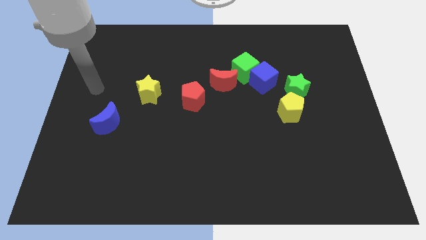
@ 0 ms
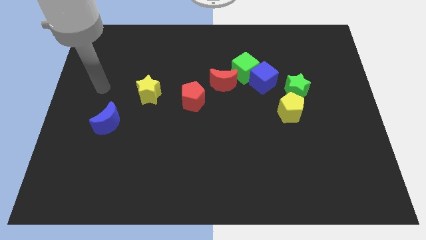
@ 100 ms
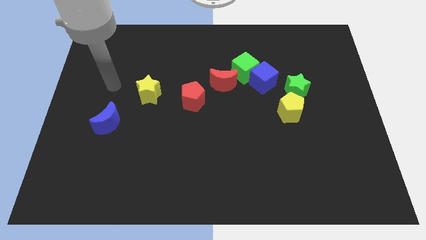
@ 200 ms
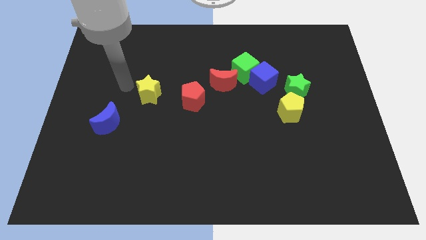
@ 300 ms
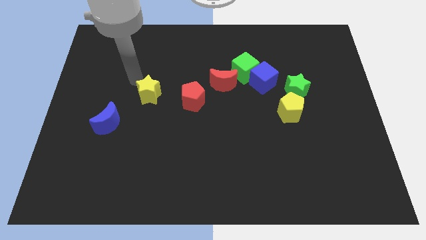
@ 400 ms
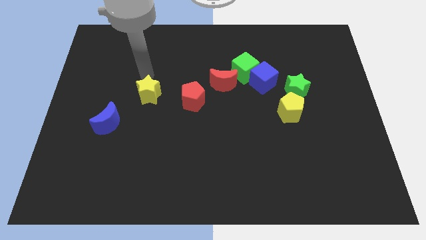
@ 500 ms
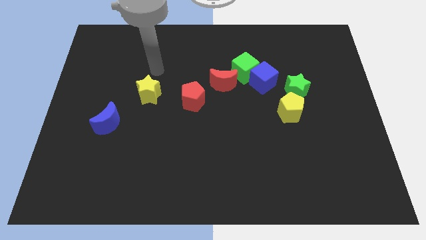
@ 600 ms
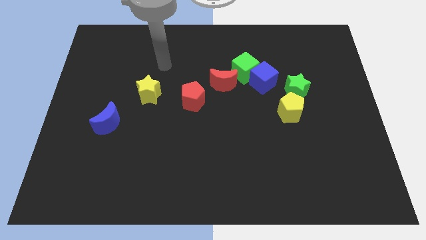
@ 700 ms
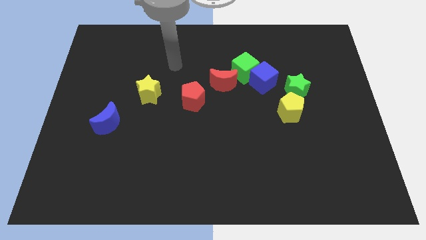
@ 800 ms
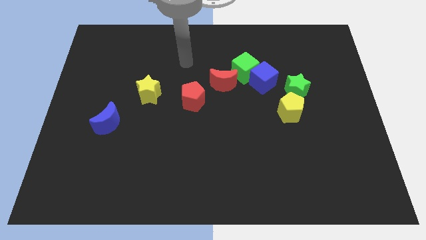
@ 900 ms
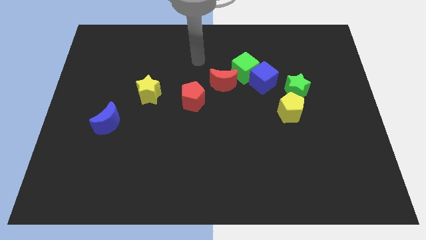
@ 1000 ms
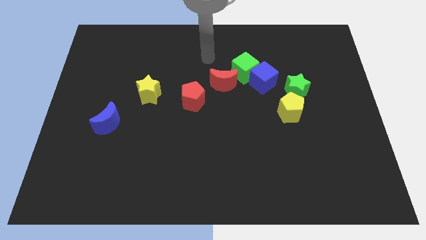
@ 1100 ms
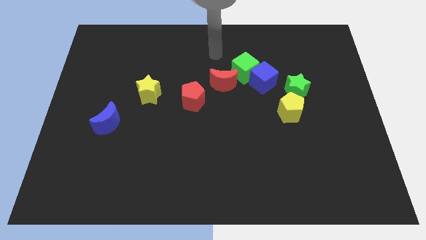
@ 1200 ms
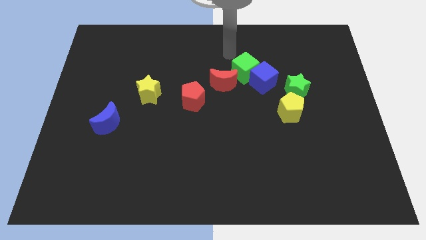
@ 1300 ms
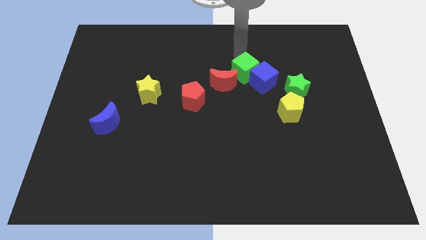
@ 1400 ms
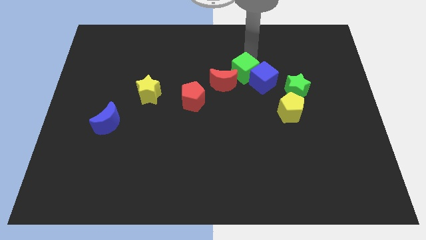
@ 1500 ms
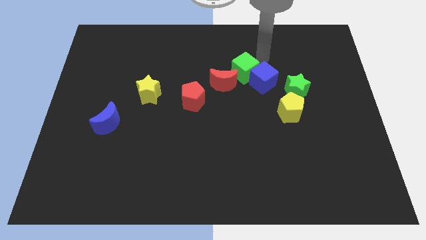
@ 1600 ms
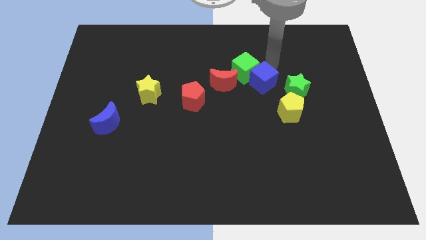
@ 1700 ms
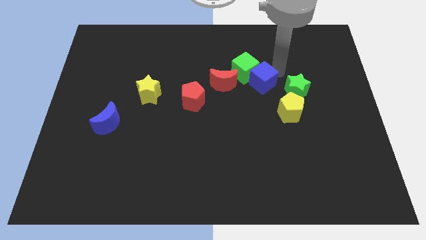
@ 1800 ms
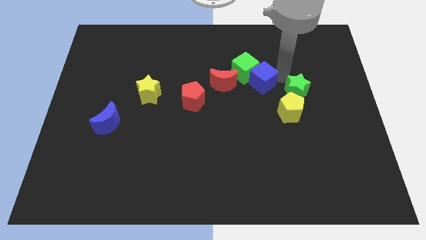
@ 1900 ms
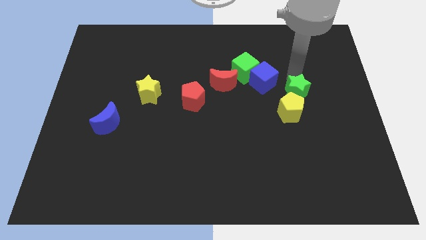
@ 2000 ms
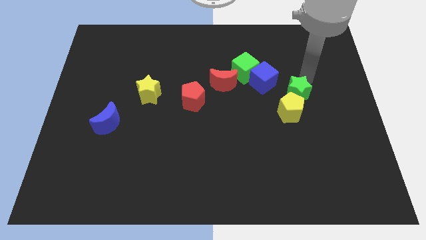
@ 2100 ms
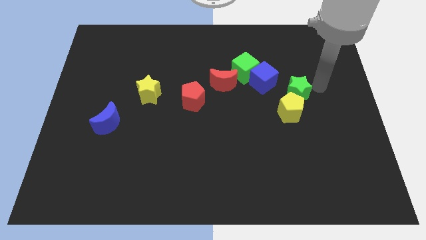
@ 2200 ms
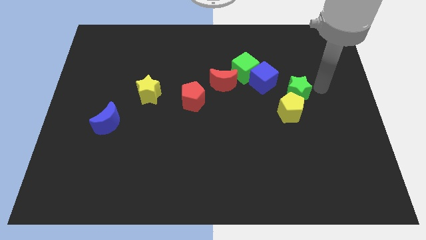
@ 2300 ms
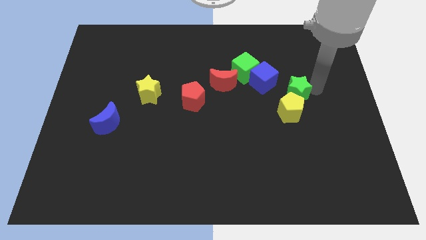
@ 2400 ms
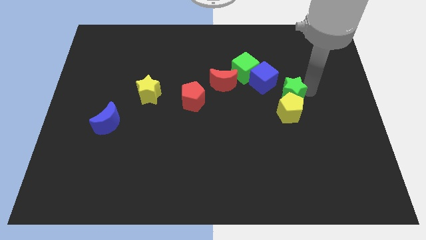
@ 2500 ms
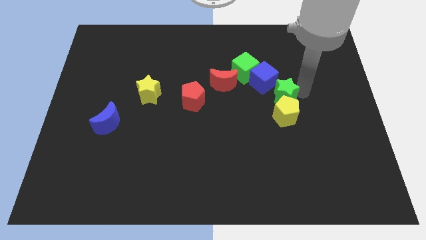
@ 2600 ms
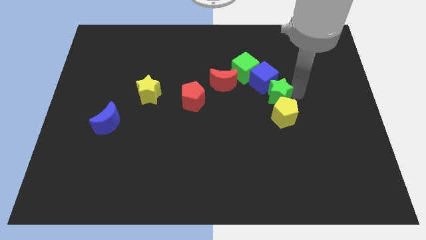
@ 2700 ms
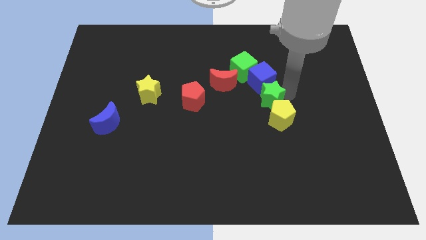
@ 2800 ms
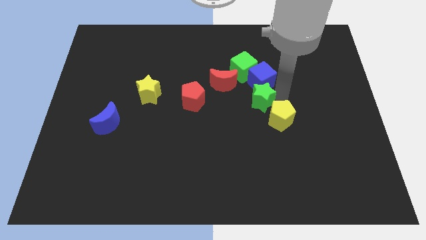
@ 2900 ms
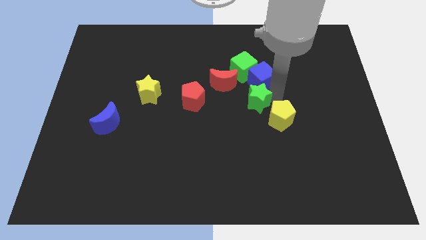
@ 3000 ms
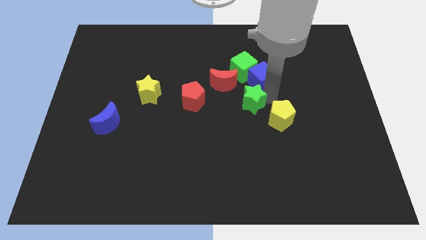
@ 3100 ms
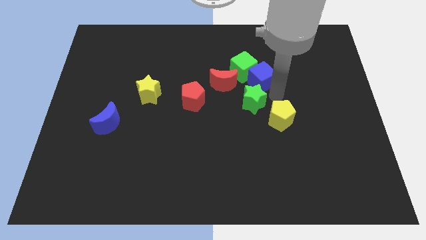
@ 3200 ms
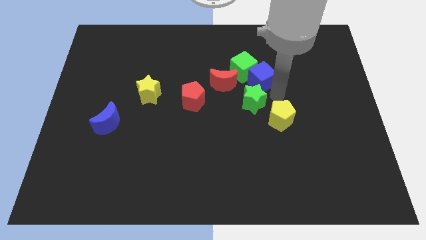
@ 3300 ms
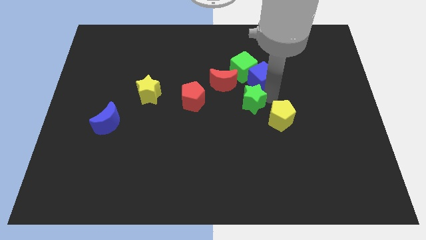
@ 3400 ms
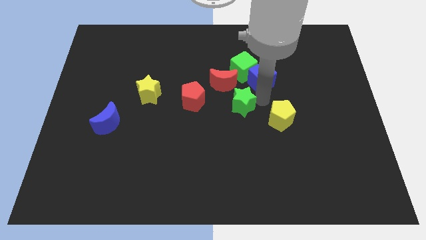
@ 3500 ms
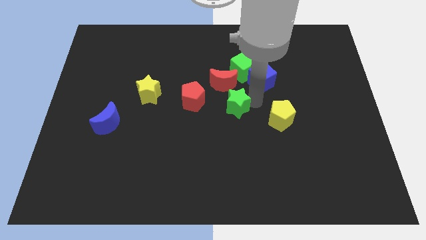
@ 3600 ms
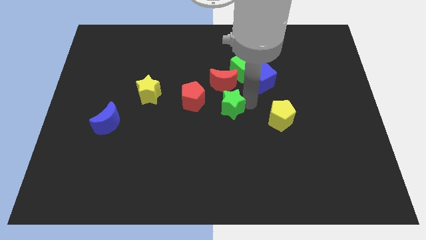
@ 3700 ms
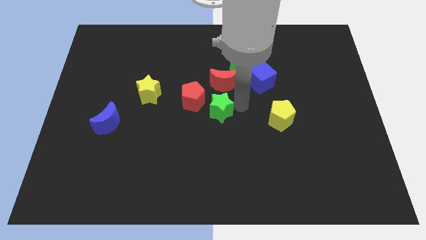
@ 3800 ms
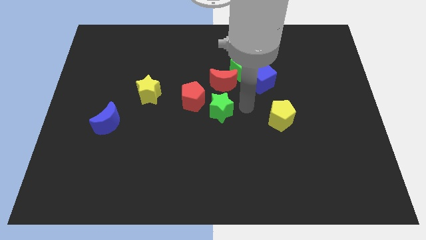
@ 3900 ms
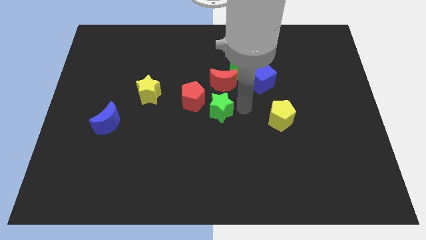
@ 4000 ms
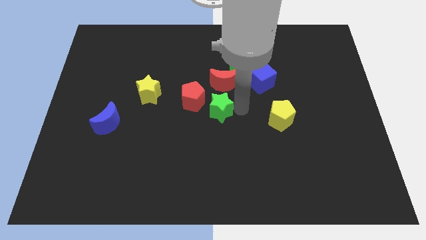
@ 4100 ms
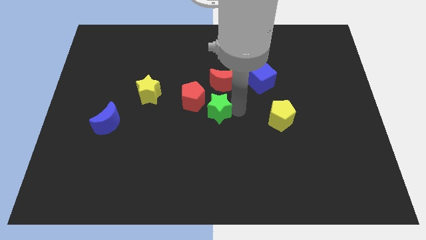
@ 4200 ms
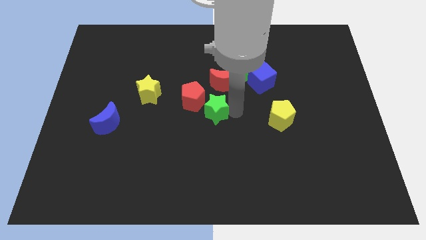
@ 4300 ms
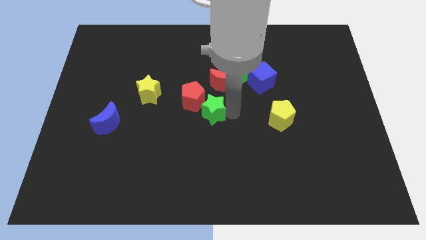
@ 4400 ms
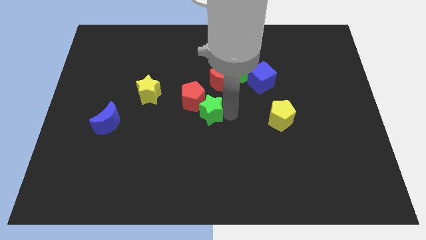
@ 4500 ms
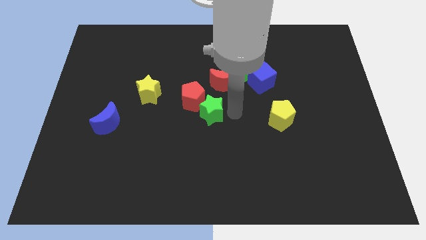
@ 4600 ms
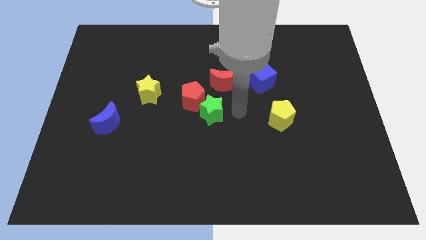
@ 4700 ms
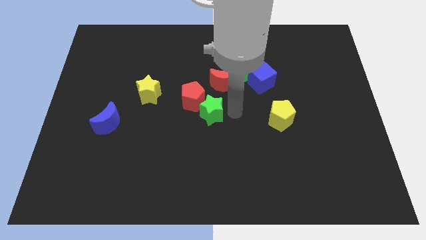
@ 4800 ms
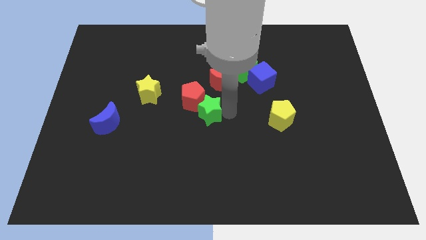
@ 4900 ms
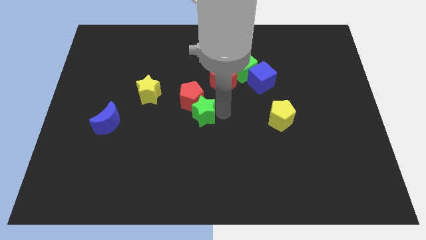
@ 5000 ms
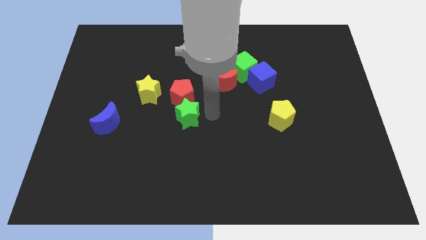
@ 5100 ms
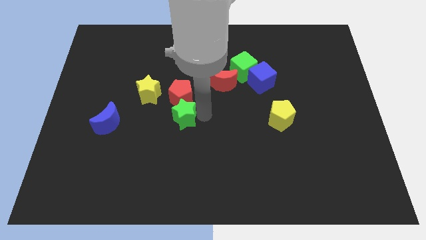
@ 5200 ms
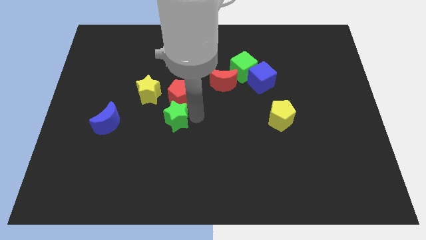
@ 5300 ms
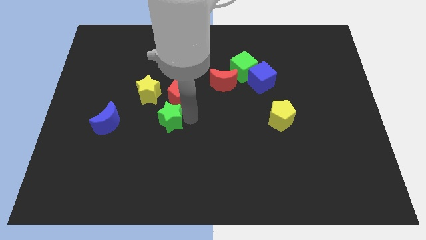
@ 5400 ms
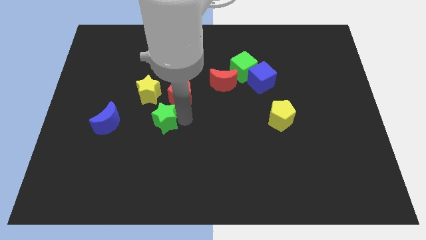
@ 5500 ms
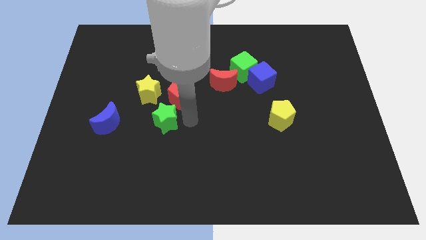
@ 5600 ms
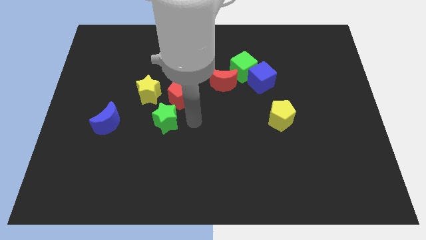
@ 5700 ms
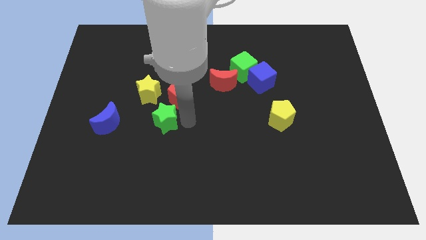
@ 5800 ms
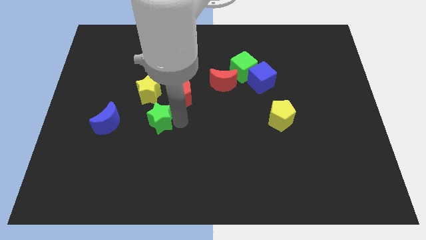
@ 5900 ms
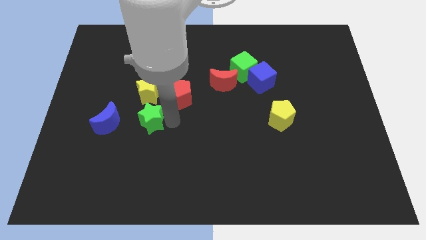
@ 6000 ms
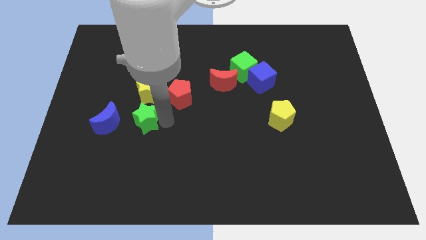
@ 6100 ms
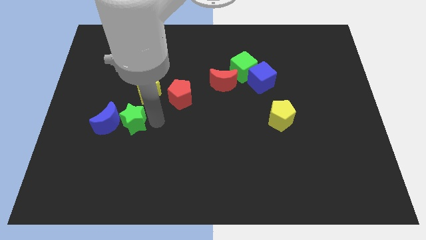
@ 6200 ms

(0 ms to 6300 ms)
slide the green star to the blue moon

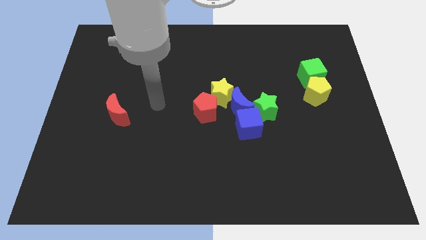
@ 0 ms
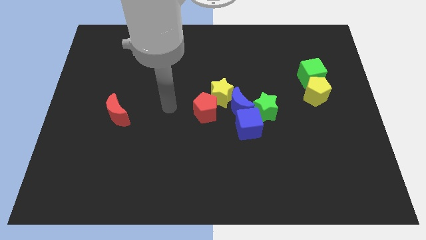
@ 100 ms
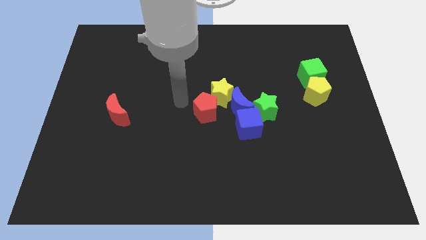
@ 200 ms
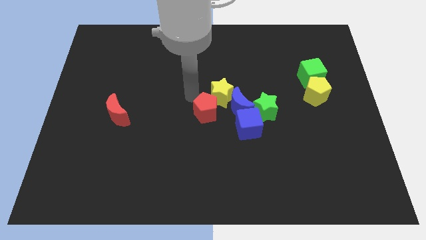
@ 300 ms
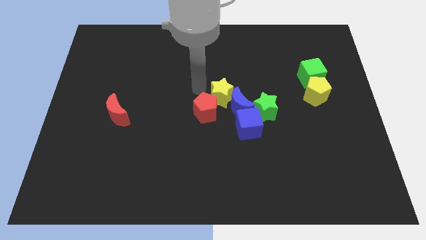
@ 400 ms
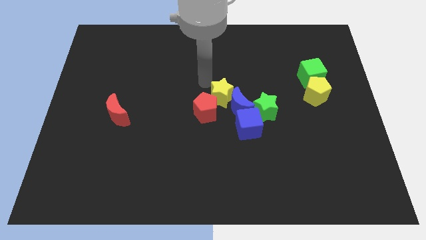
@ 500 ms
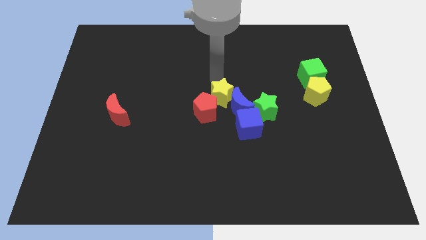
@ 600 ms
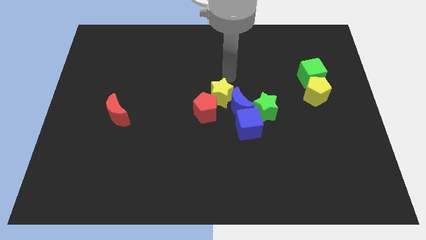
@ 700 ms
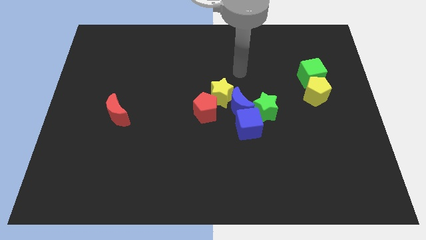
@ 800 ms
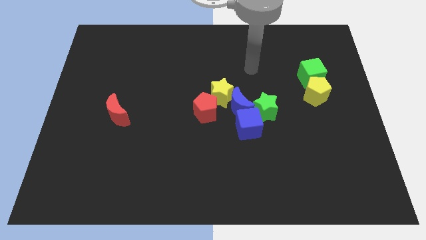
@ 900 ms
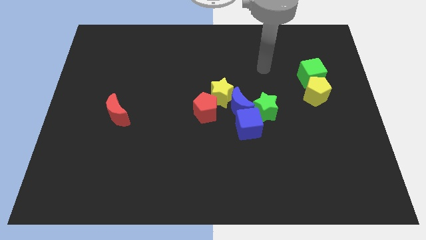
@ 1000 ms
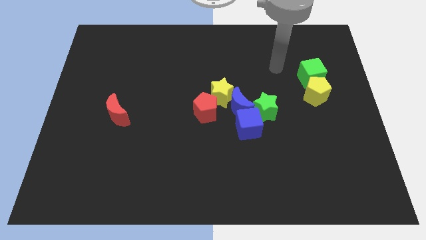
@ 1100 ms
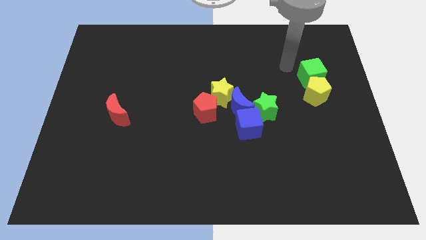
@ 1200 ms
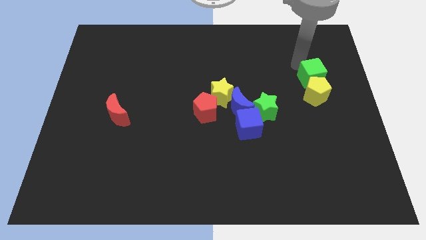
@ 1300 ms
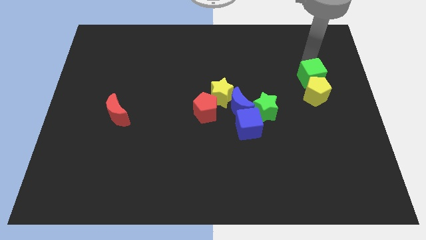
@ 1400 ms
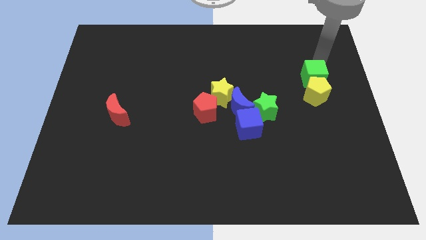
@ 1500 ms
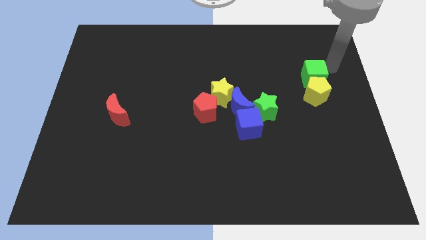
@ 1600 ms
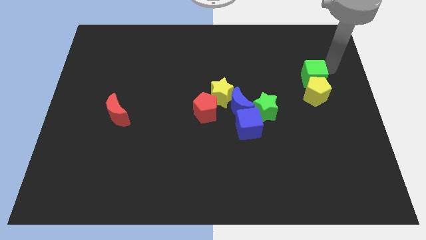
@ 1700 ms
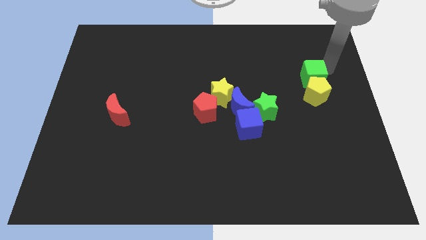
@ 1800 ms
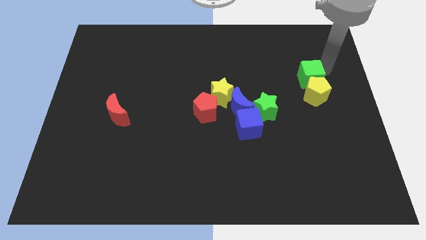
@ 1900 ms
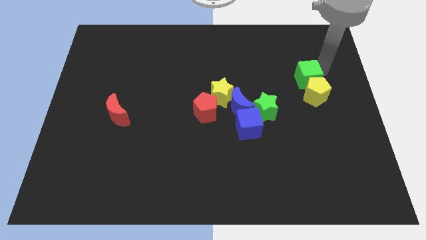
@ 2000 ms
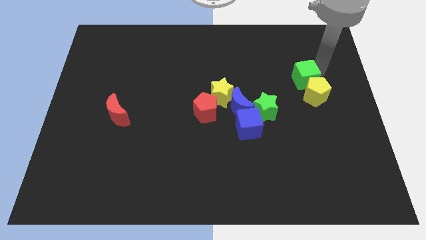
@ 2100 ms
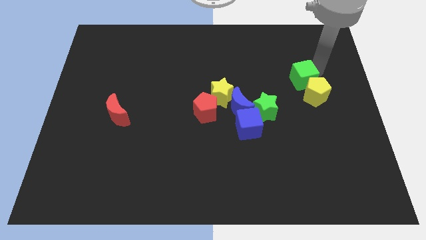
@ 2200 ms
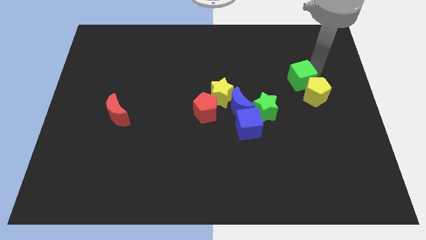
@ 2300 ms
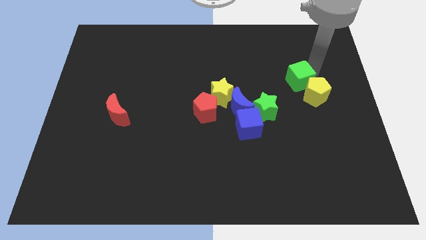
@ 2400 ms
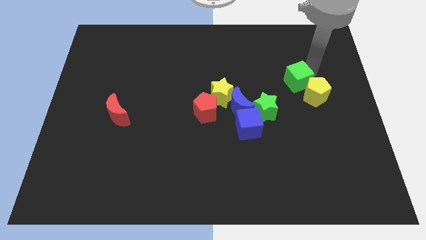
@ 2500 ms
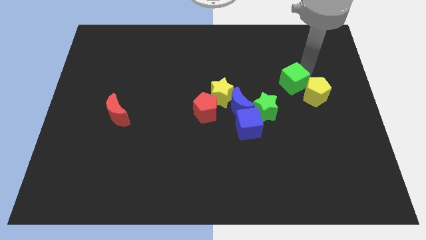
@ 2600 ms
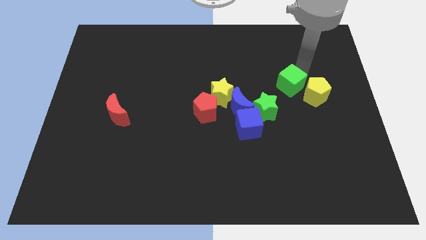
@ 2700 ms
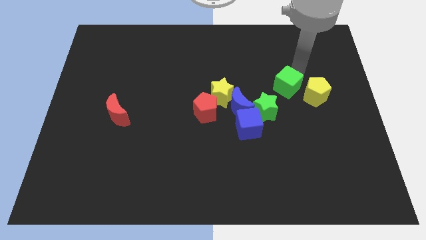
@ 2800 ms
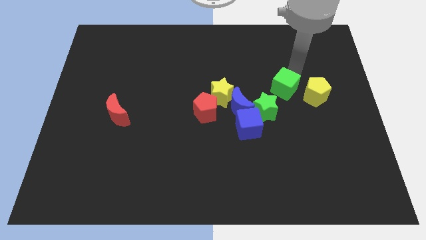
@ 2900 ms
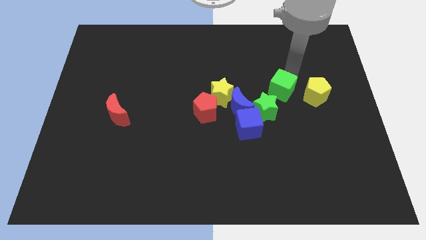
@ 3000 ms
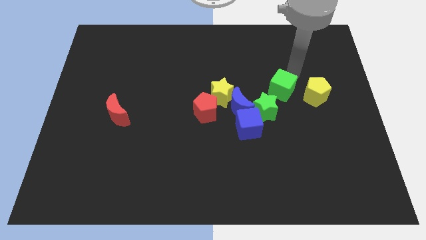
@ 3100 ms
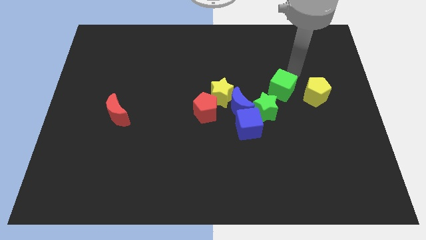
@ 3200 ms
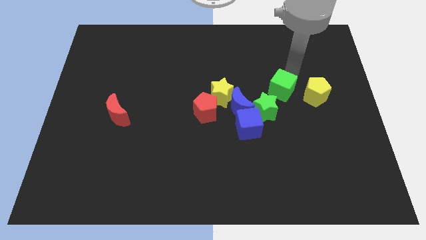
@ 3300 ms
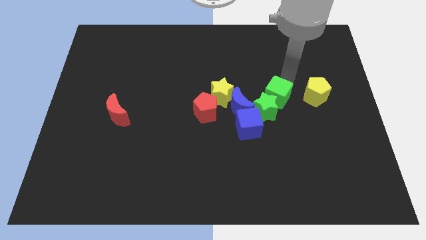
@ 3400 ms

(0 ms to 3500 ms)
put the green cube towards the green star
